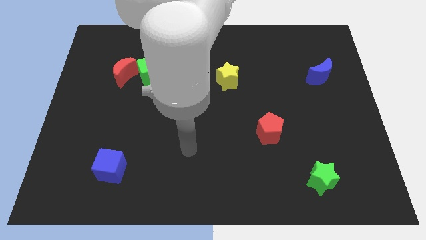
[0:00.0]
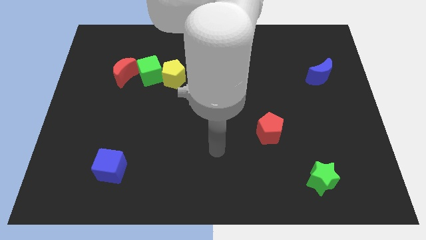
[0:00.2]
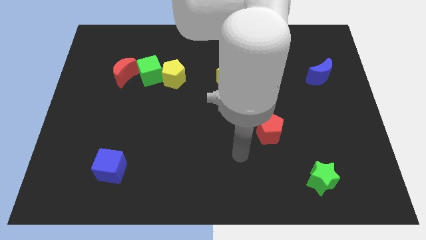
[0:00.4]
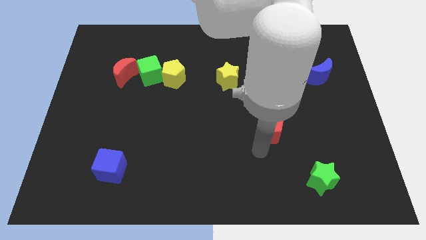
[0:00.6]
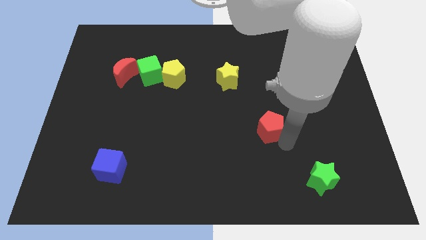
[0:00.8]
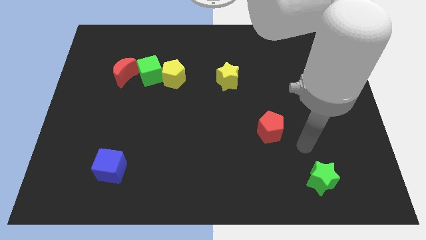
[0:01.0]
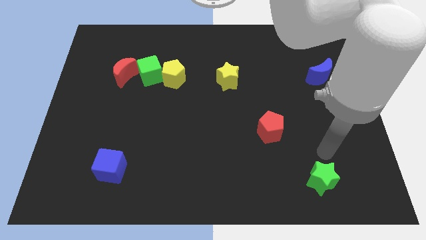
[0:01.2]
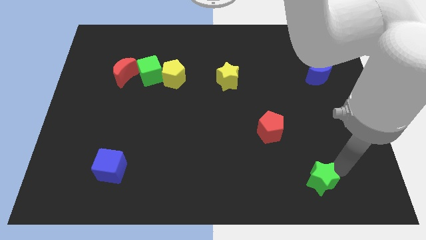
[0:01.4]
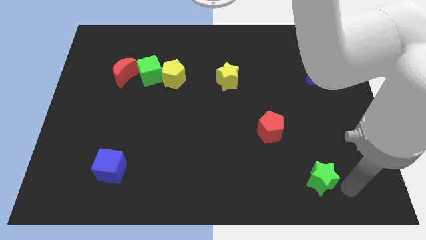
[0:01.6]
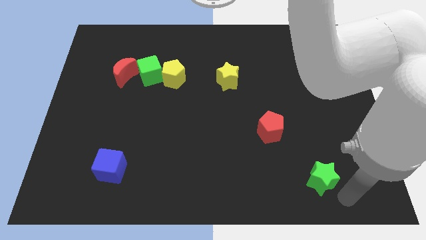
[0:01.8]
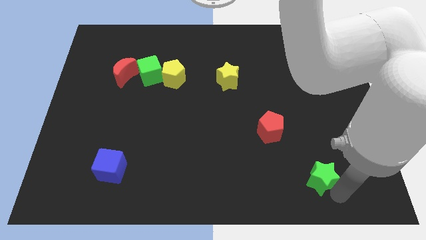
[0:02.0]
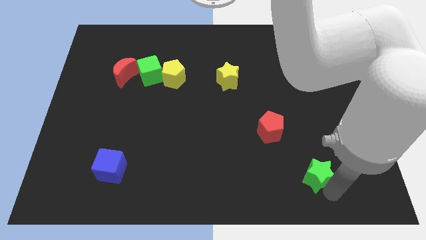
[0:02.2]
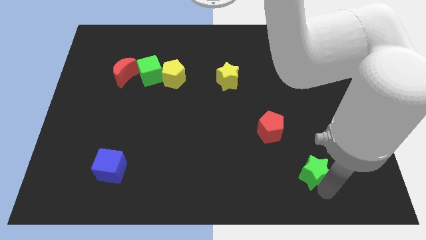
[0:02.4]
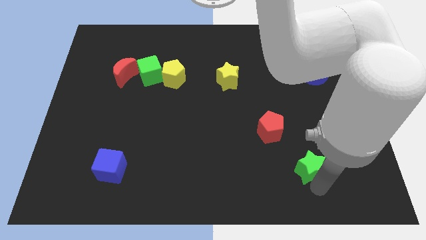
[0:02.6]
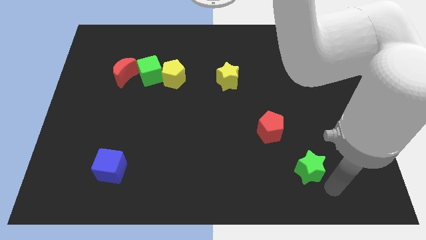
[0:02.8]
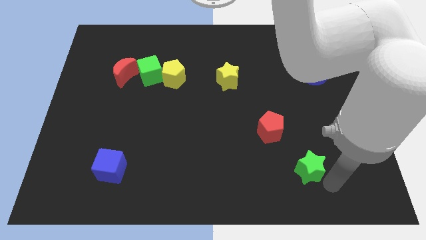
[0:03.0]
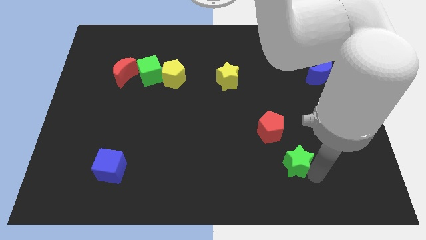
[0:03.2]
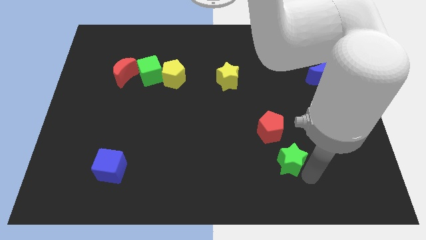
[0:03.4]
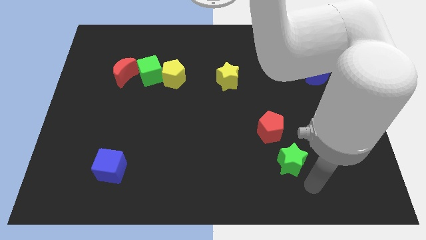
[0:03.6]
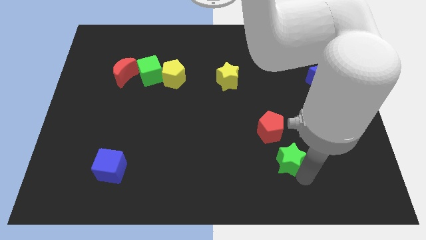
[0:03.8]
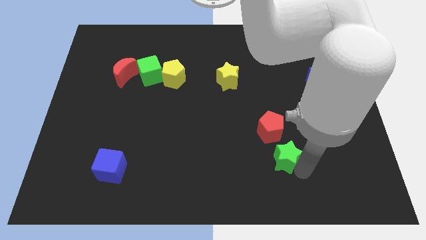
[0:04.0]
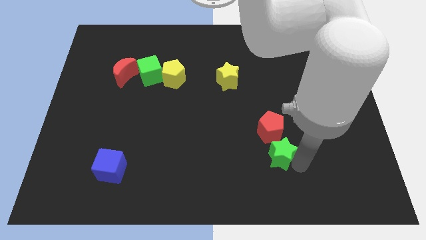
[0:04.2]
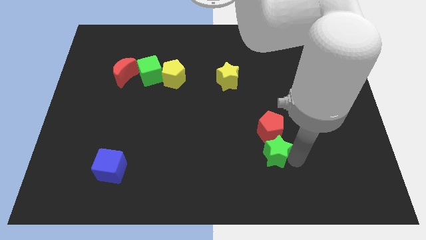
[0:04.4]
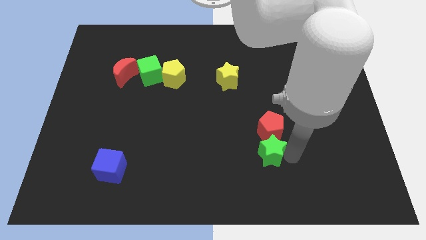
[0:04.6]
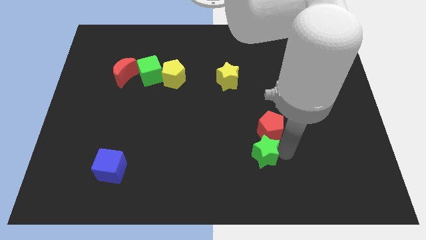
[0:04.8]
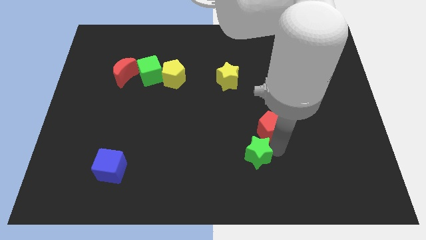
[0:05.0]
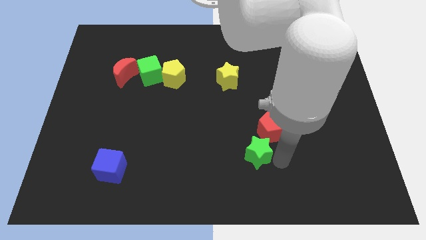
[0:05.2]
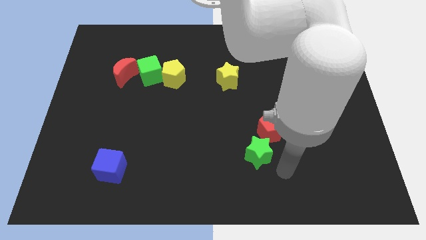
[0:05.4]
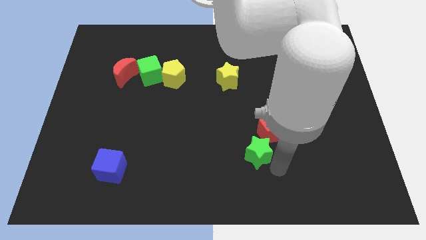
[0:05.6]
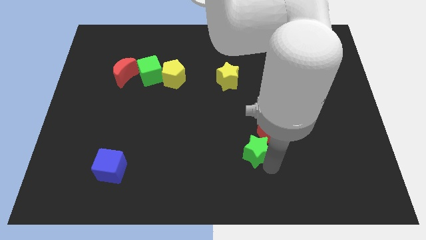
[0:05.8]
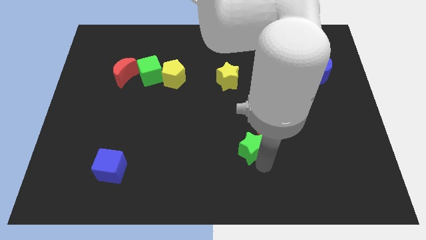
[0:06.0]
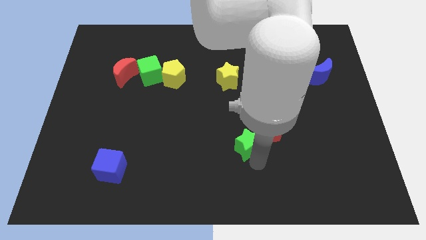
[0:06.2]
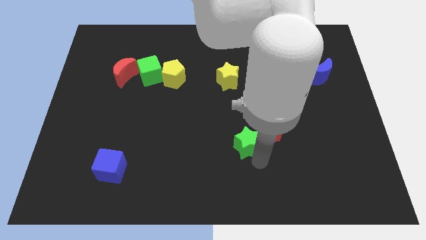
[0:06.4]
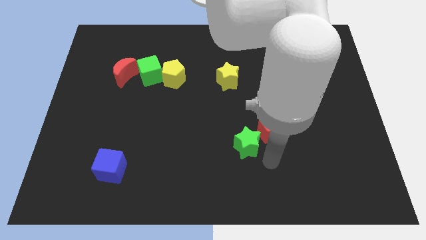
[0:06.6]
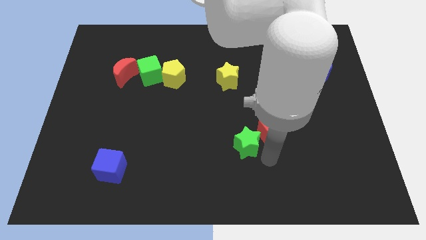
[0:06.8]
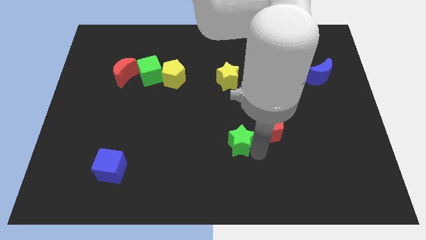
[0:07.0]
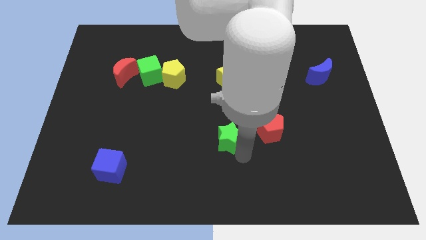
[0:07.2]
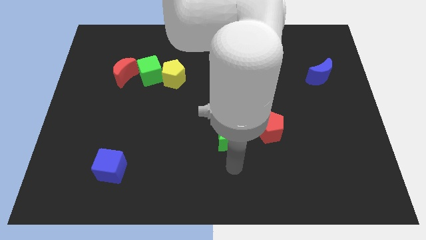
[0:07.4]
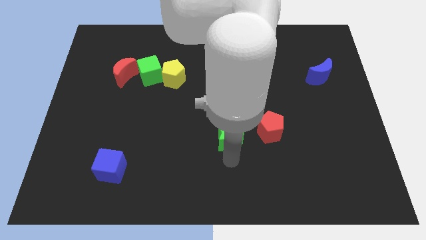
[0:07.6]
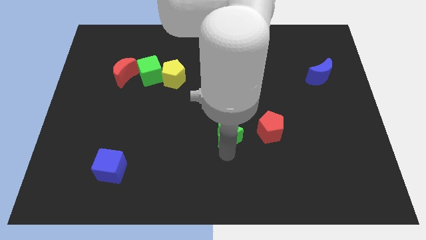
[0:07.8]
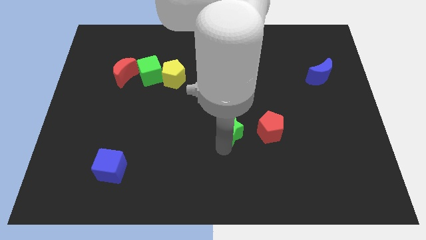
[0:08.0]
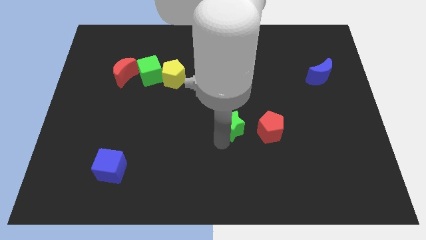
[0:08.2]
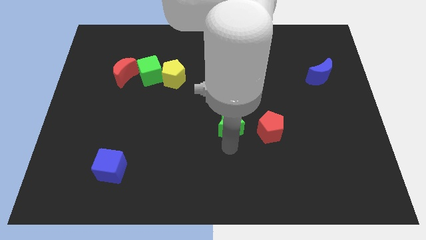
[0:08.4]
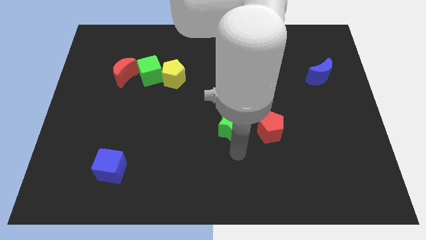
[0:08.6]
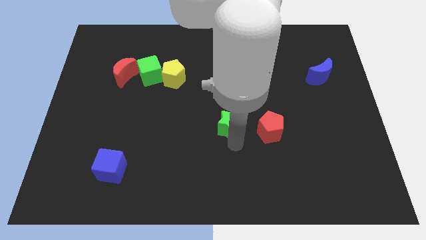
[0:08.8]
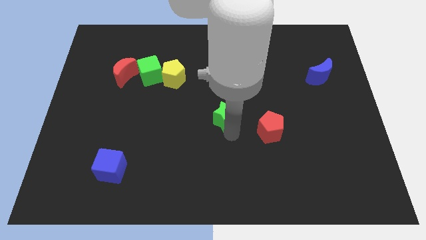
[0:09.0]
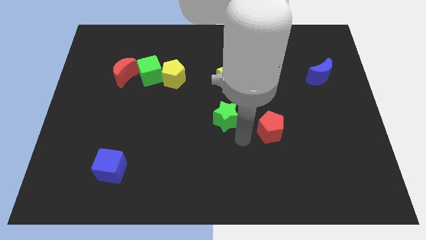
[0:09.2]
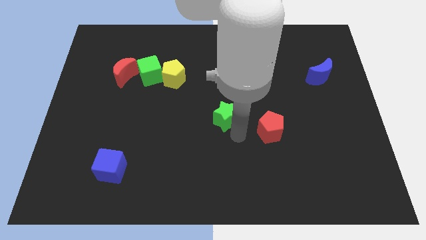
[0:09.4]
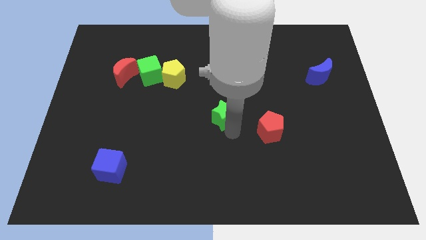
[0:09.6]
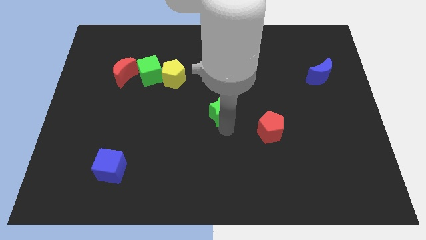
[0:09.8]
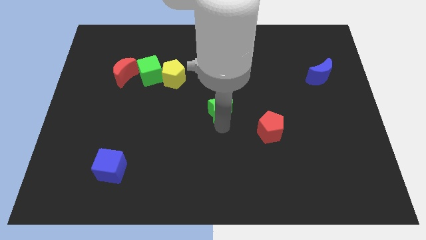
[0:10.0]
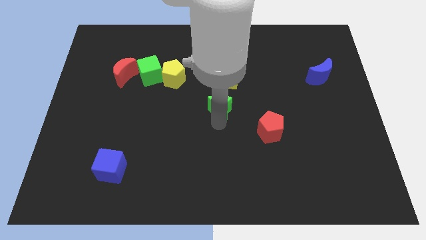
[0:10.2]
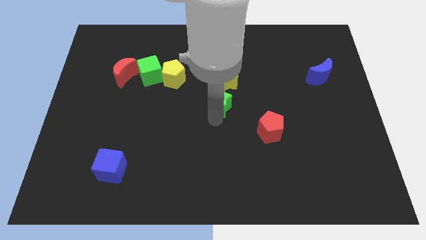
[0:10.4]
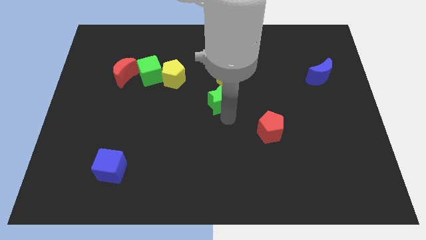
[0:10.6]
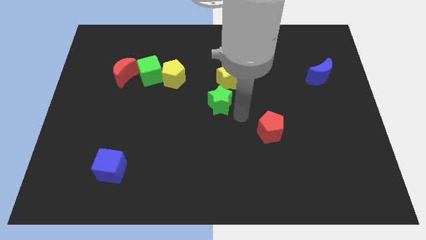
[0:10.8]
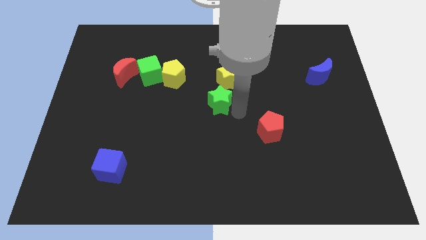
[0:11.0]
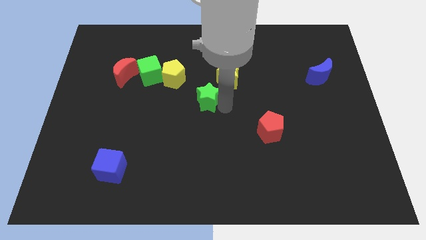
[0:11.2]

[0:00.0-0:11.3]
slide the green star diagonally down and to the right of the yellow pentagon

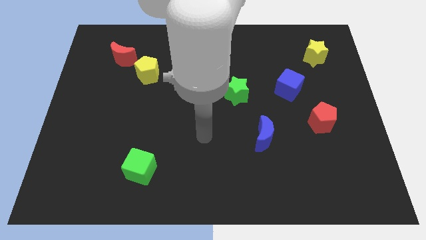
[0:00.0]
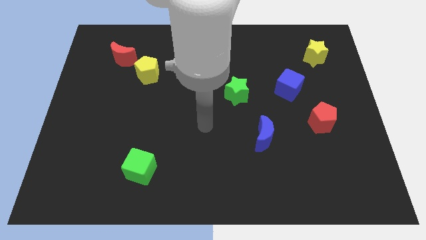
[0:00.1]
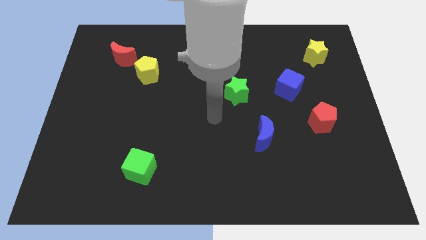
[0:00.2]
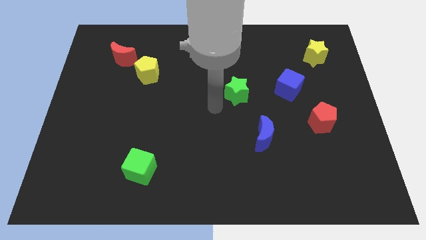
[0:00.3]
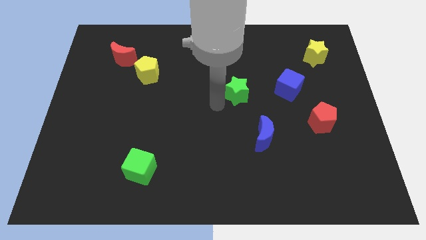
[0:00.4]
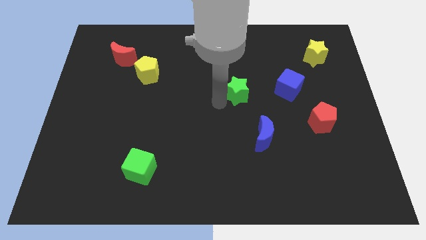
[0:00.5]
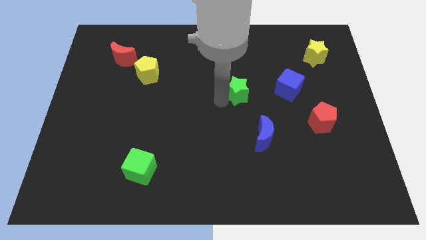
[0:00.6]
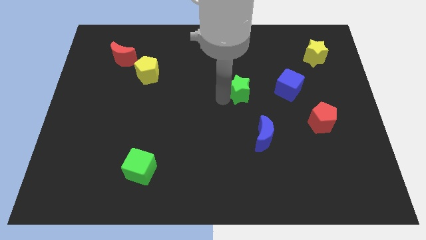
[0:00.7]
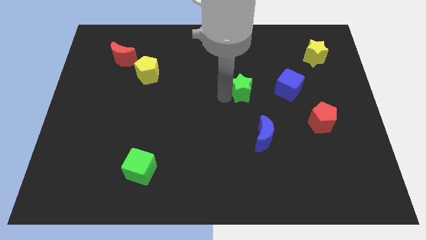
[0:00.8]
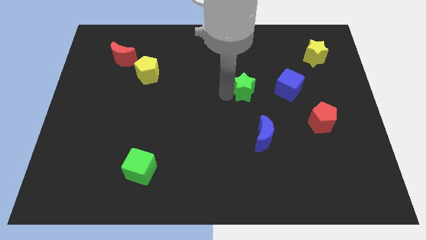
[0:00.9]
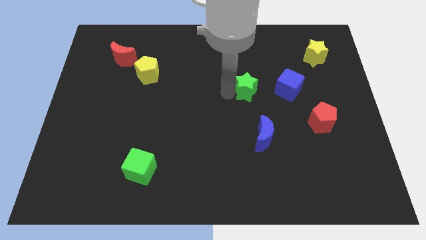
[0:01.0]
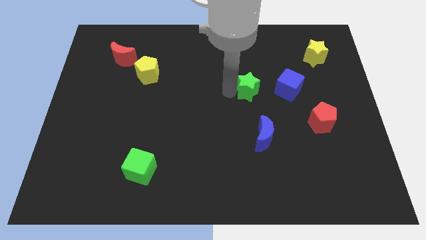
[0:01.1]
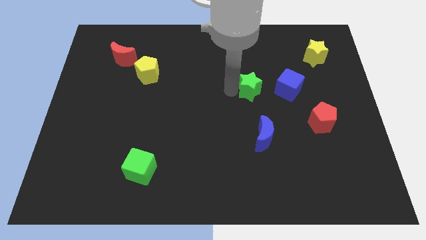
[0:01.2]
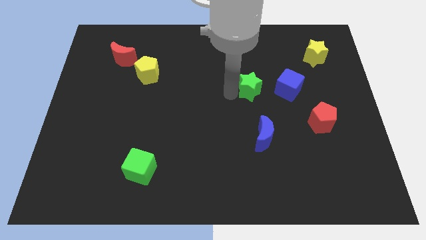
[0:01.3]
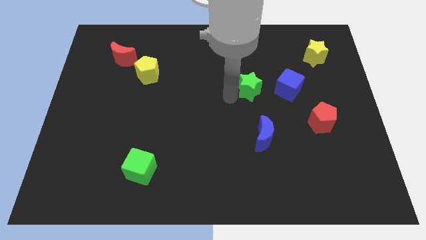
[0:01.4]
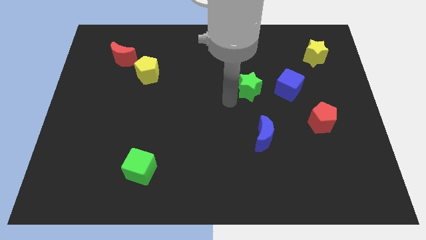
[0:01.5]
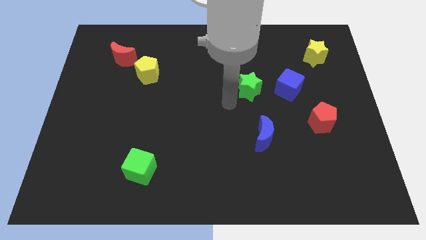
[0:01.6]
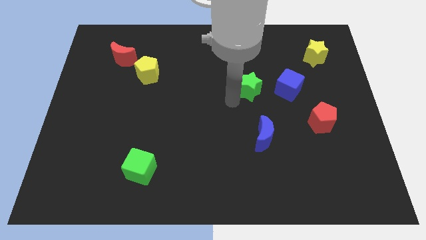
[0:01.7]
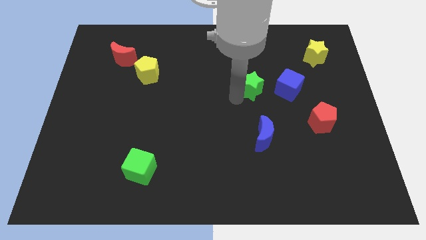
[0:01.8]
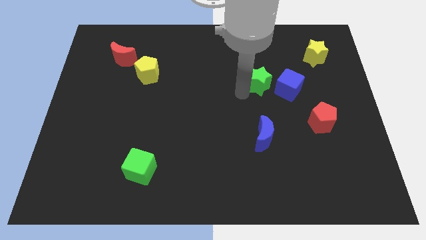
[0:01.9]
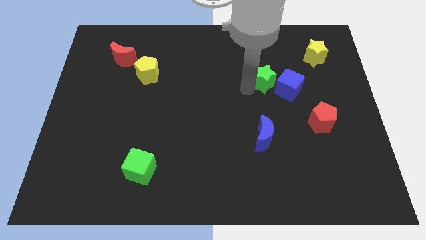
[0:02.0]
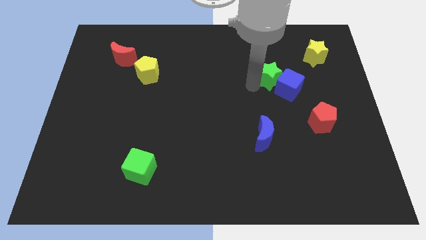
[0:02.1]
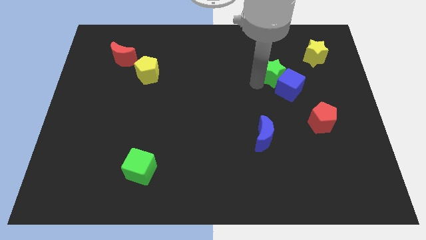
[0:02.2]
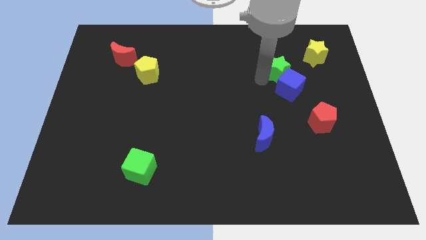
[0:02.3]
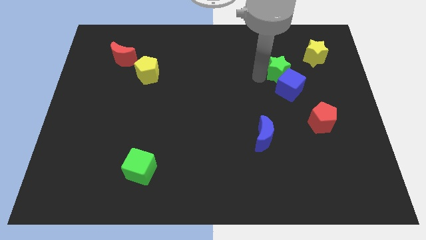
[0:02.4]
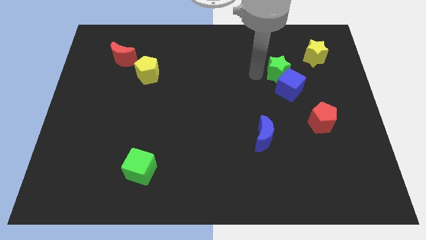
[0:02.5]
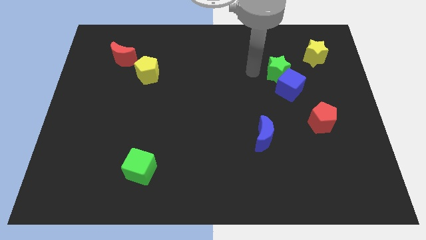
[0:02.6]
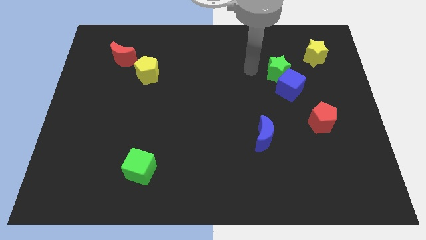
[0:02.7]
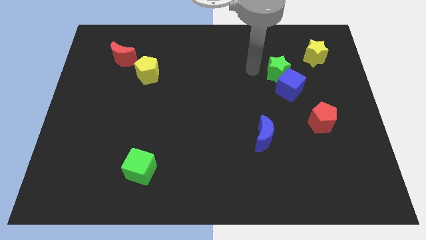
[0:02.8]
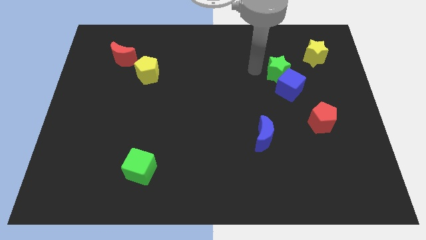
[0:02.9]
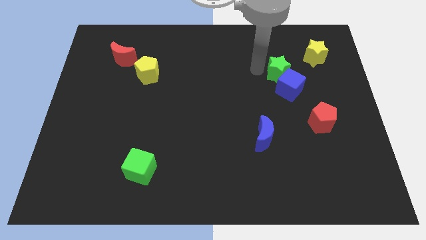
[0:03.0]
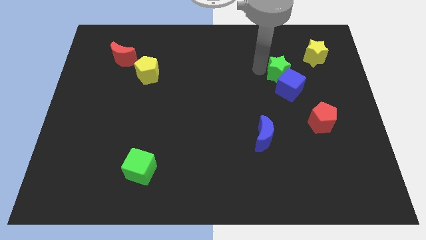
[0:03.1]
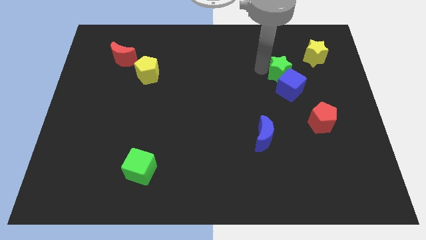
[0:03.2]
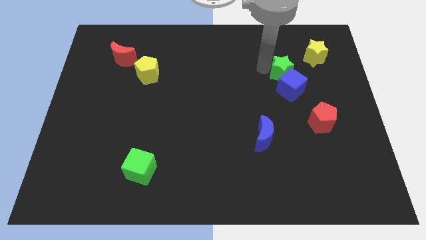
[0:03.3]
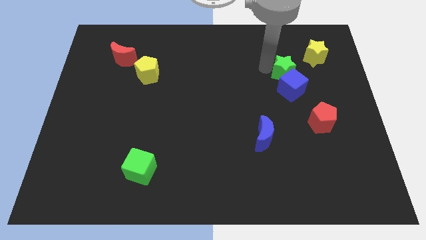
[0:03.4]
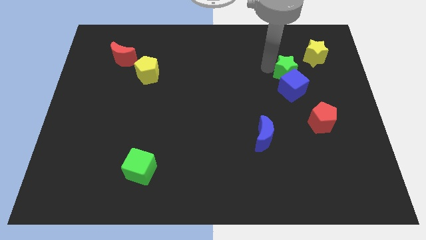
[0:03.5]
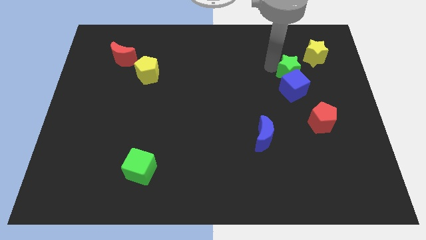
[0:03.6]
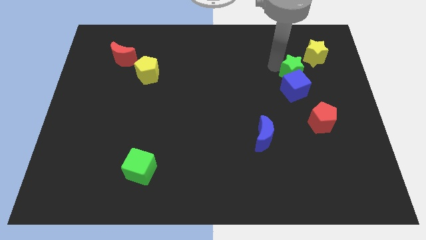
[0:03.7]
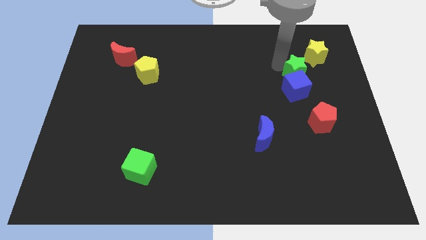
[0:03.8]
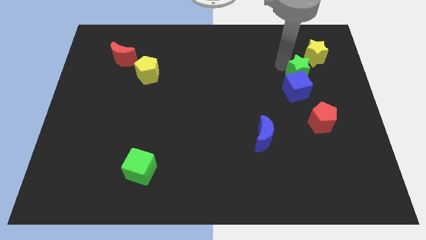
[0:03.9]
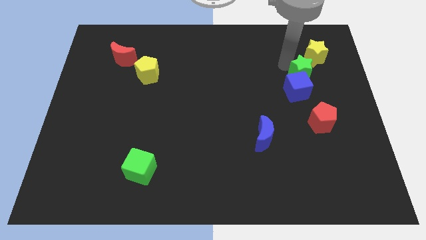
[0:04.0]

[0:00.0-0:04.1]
slide the green star to the bottom of the yellow star
